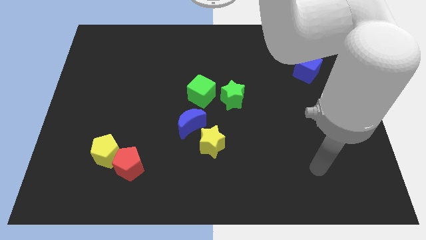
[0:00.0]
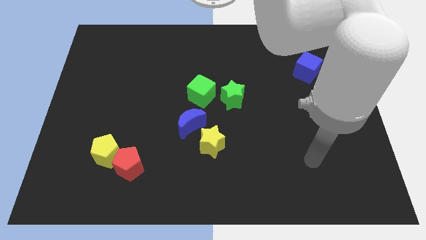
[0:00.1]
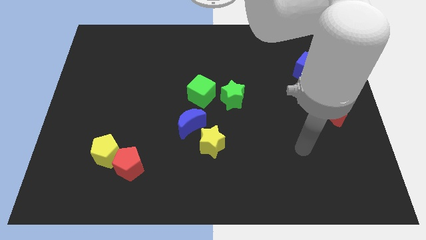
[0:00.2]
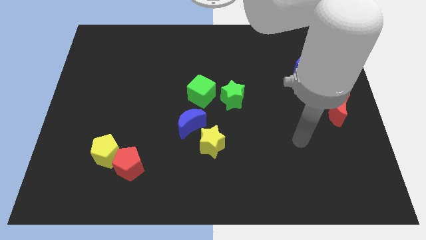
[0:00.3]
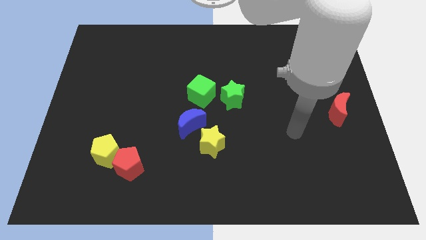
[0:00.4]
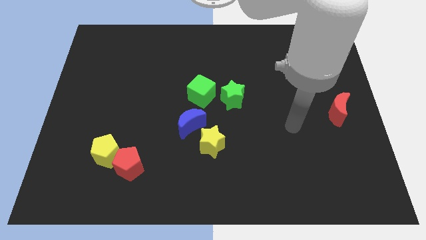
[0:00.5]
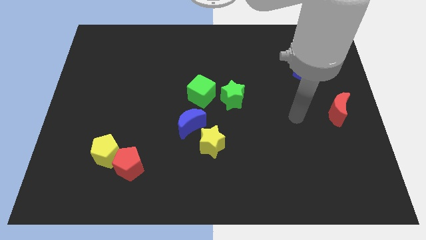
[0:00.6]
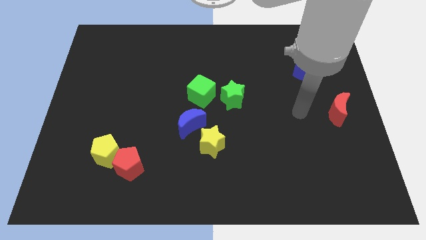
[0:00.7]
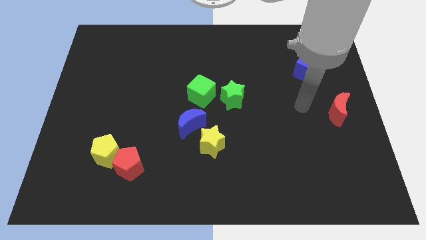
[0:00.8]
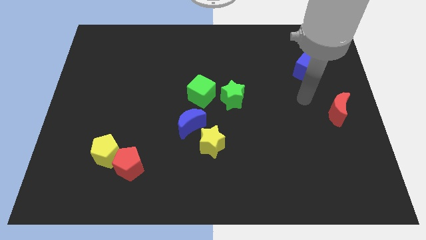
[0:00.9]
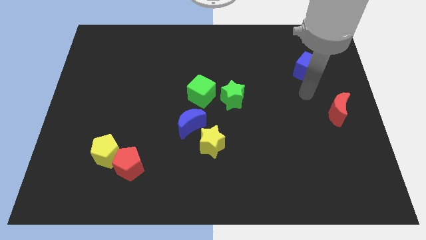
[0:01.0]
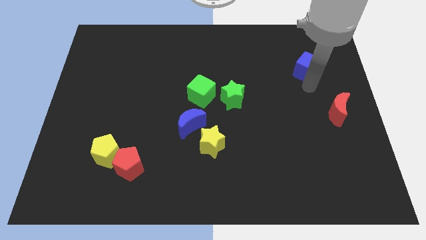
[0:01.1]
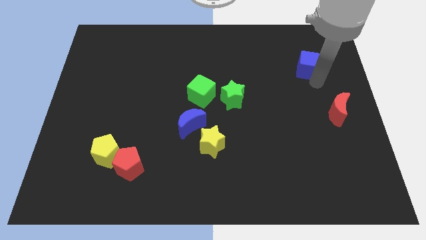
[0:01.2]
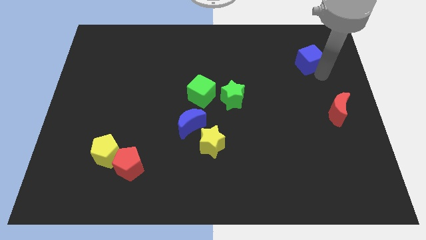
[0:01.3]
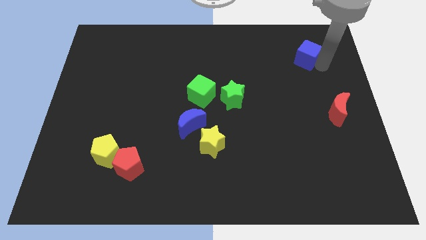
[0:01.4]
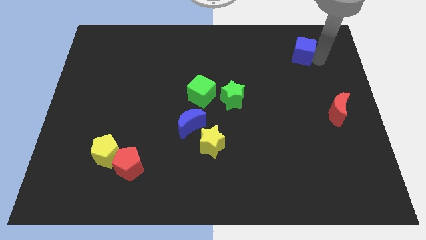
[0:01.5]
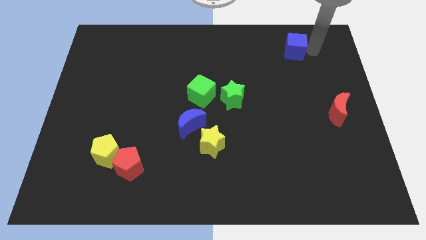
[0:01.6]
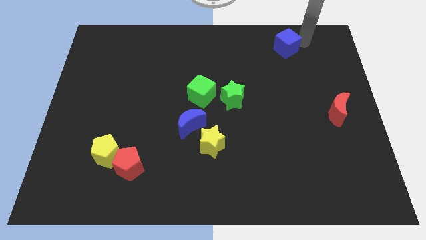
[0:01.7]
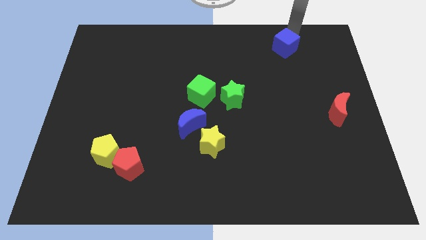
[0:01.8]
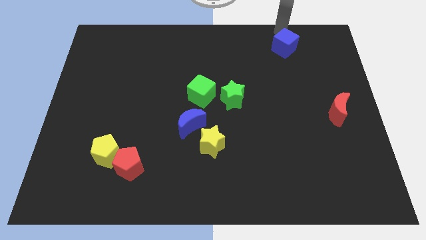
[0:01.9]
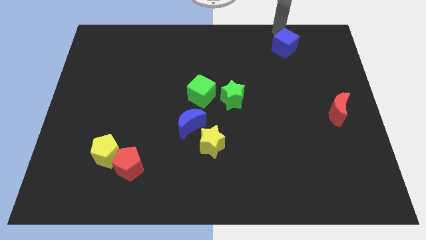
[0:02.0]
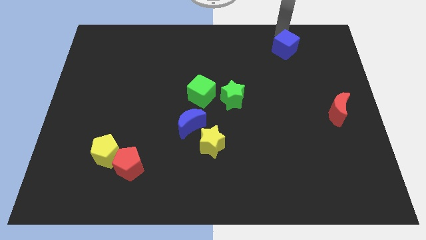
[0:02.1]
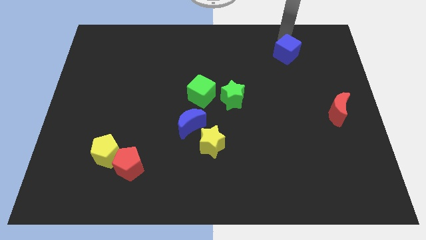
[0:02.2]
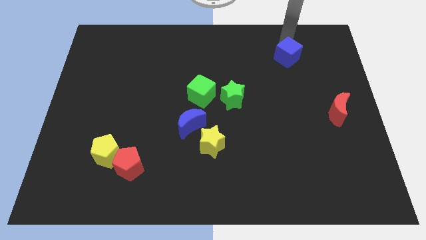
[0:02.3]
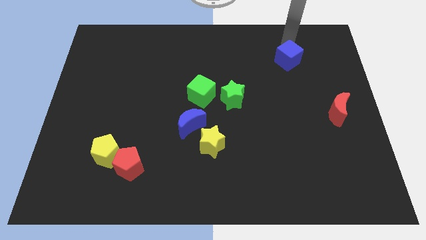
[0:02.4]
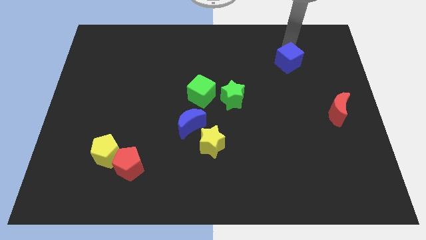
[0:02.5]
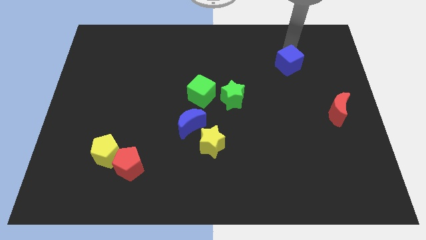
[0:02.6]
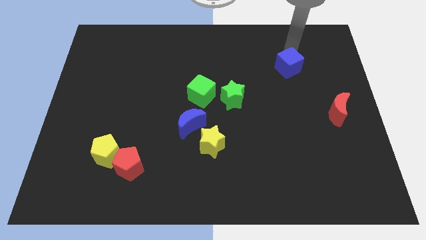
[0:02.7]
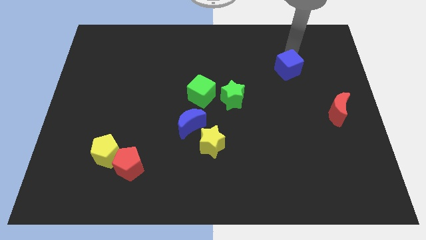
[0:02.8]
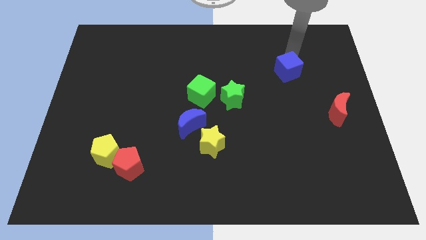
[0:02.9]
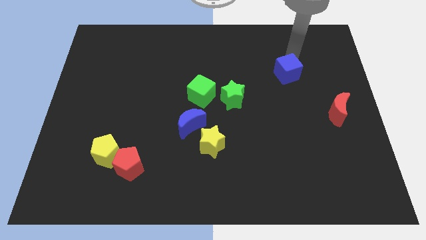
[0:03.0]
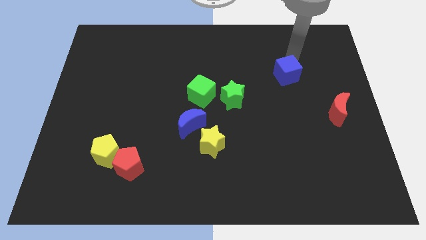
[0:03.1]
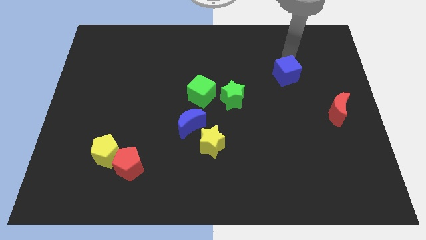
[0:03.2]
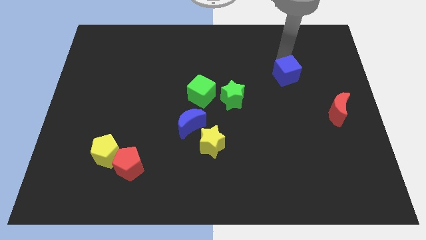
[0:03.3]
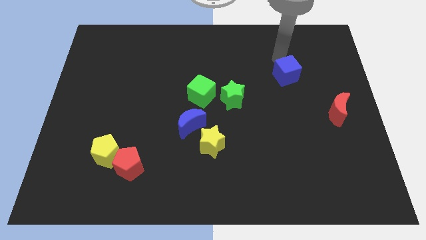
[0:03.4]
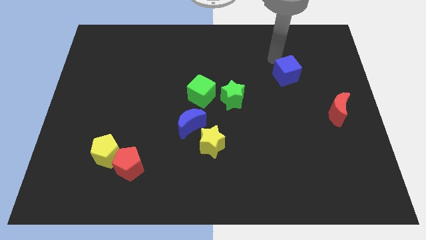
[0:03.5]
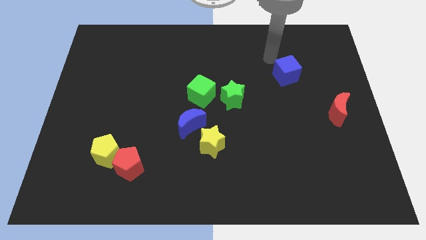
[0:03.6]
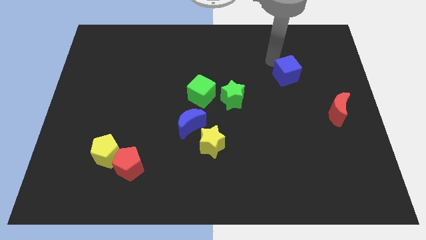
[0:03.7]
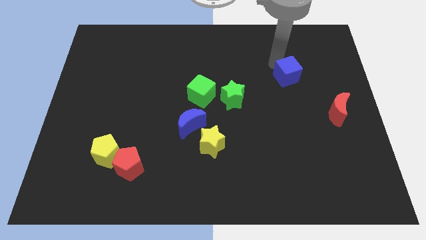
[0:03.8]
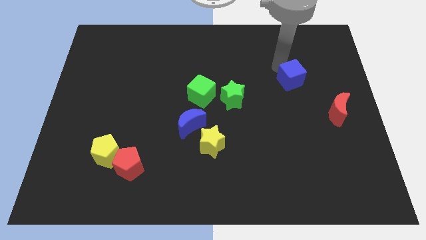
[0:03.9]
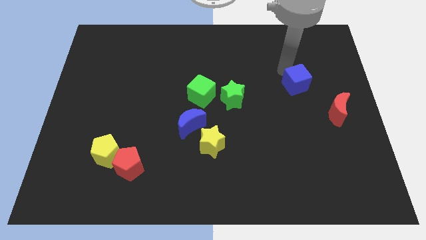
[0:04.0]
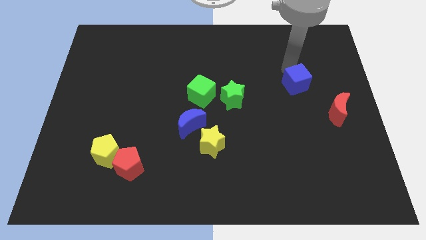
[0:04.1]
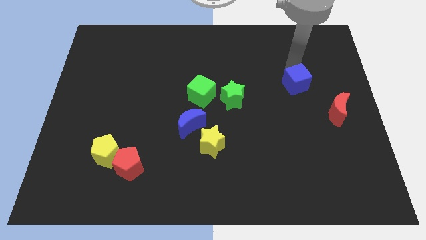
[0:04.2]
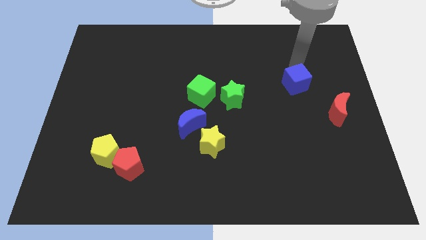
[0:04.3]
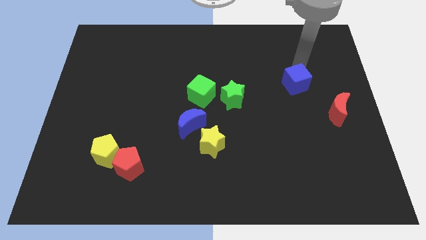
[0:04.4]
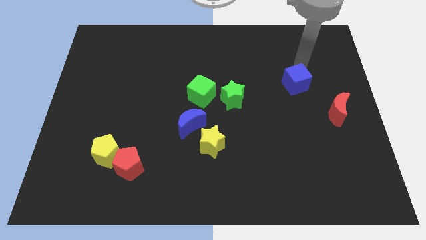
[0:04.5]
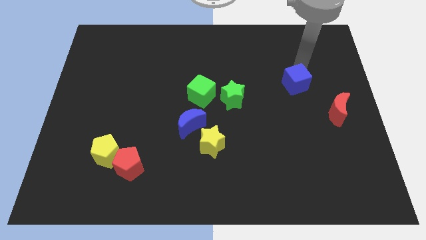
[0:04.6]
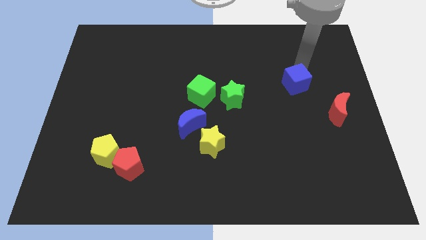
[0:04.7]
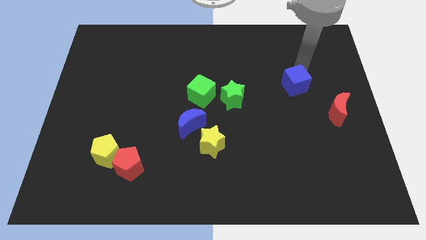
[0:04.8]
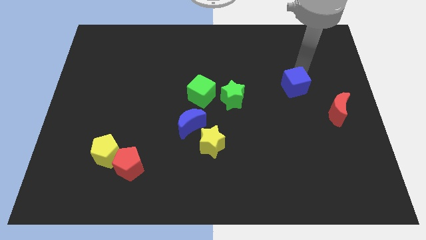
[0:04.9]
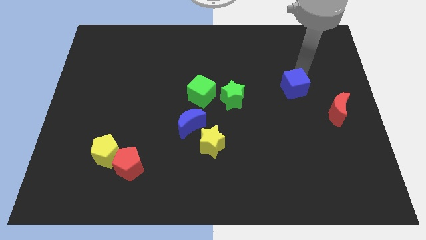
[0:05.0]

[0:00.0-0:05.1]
slide the blue cube somewhat down and left

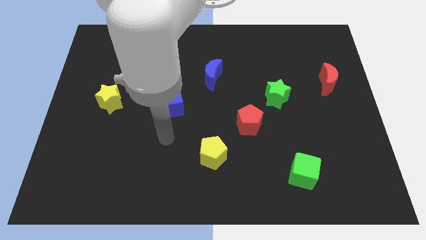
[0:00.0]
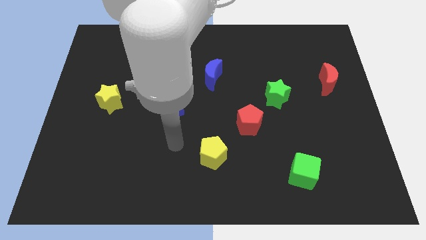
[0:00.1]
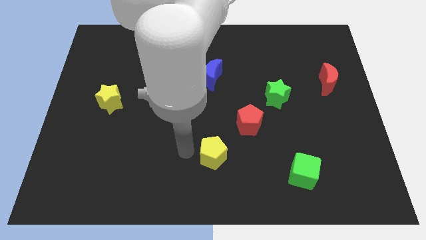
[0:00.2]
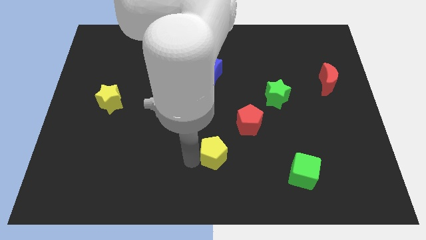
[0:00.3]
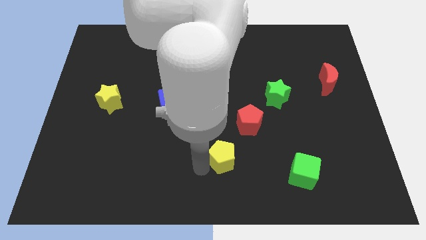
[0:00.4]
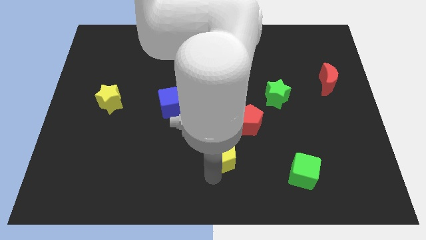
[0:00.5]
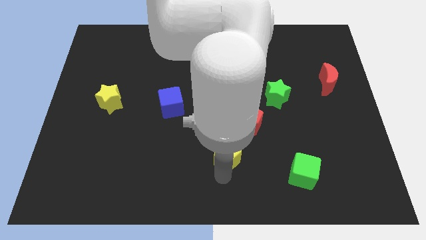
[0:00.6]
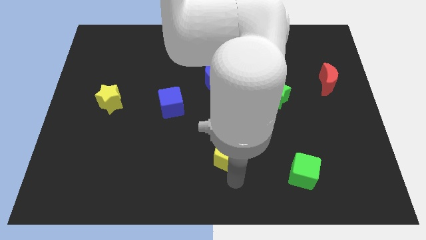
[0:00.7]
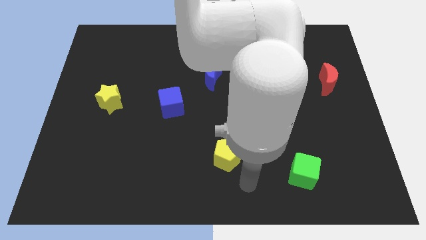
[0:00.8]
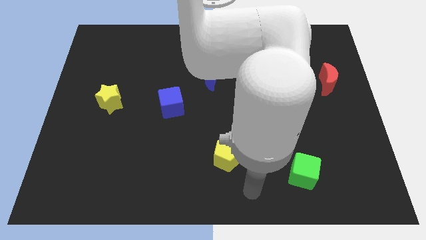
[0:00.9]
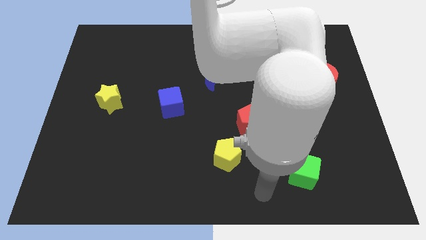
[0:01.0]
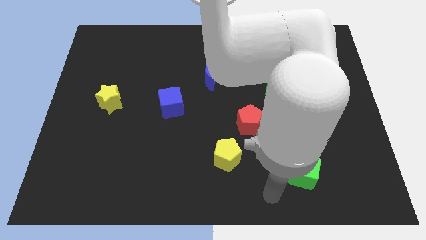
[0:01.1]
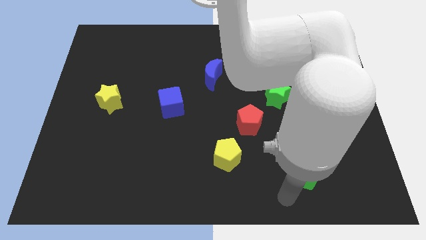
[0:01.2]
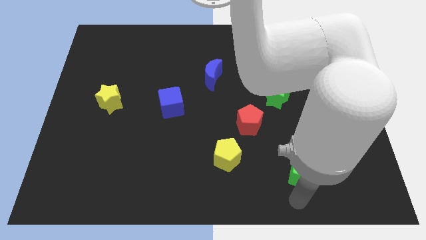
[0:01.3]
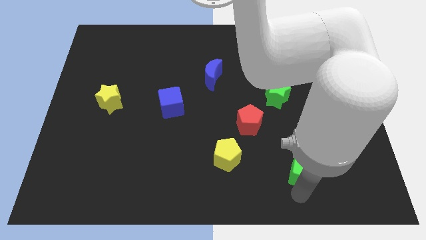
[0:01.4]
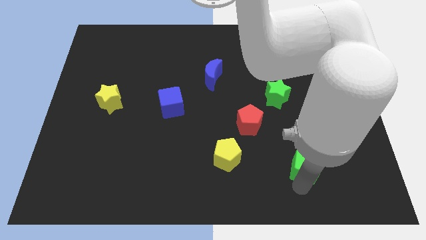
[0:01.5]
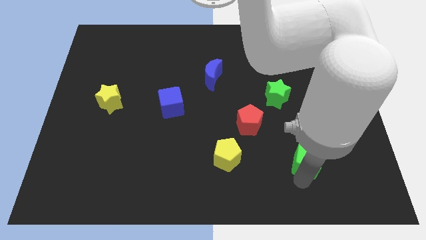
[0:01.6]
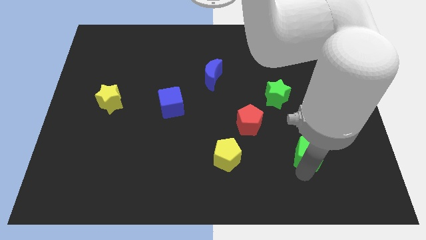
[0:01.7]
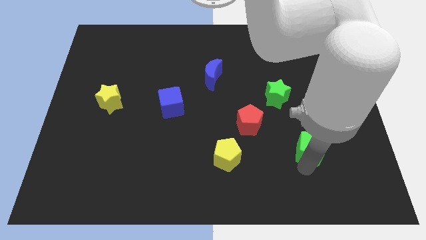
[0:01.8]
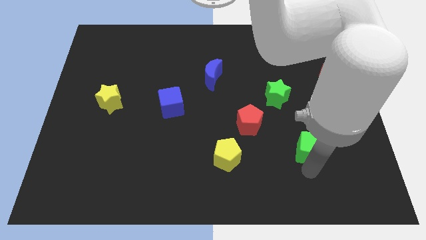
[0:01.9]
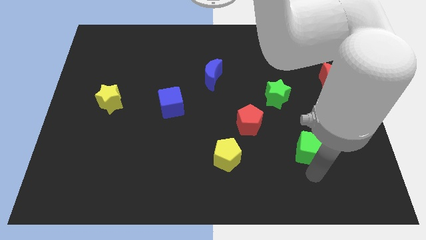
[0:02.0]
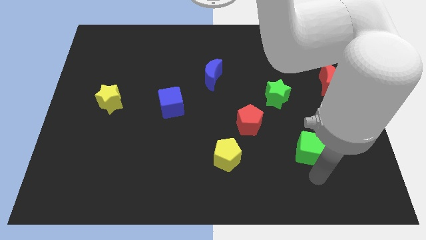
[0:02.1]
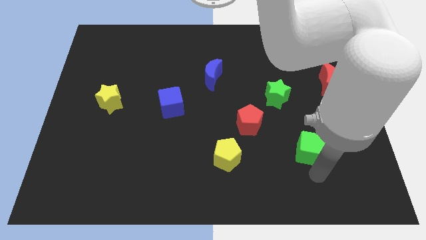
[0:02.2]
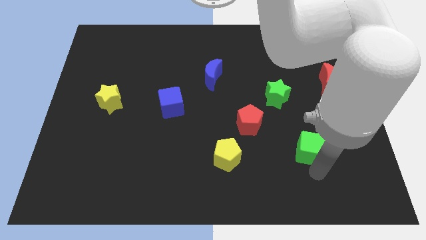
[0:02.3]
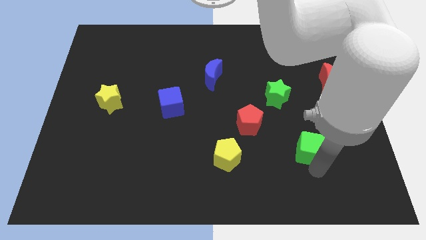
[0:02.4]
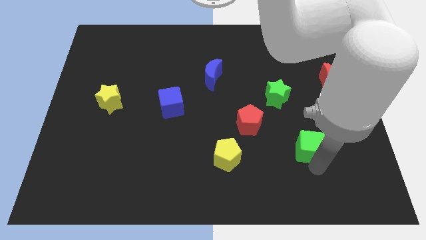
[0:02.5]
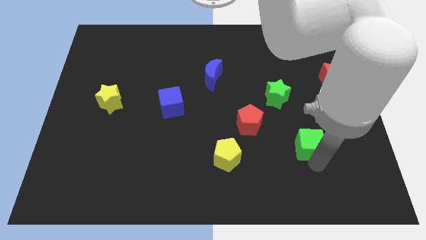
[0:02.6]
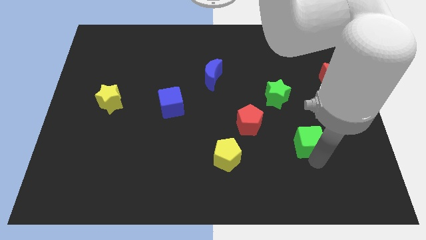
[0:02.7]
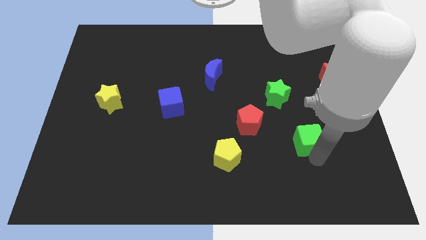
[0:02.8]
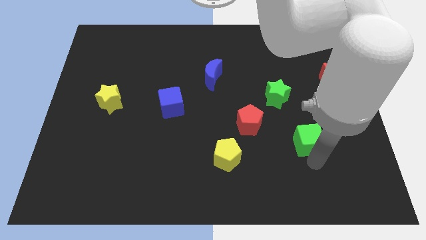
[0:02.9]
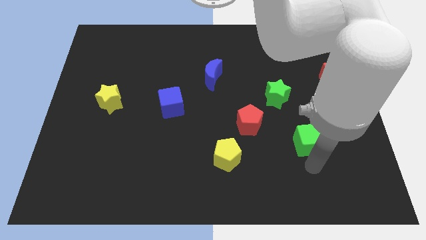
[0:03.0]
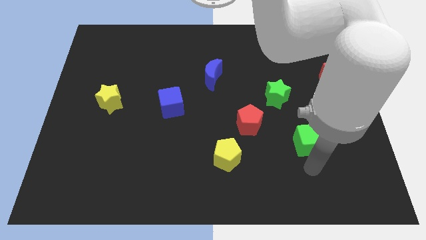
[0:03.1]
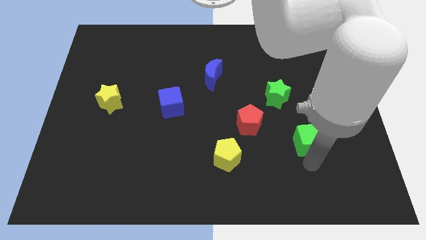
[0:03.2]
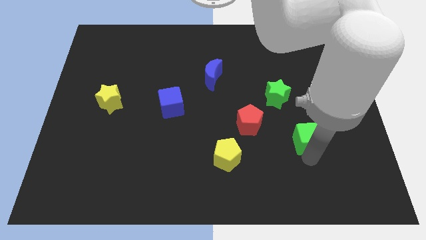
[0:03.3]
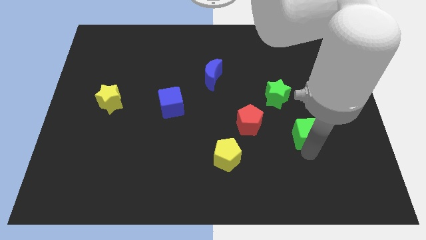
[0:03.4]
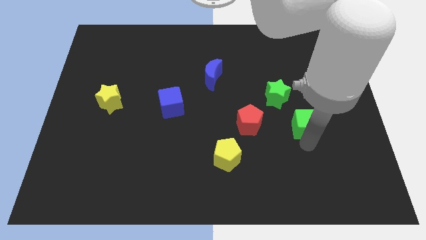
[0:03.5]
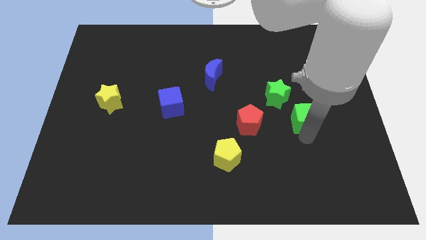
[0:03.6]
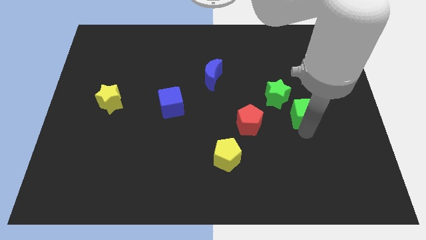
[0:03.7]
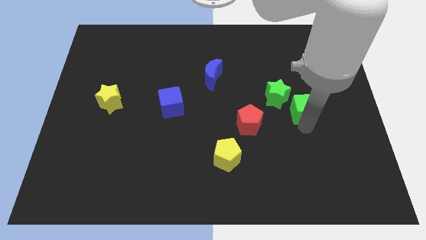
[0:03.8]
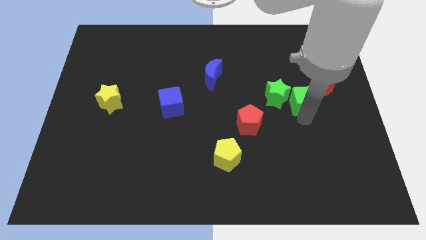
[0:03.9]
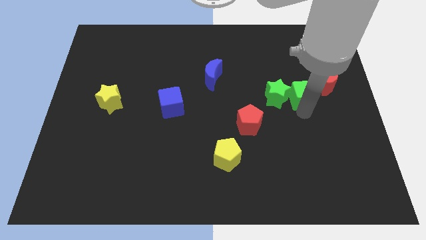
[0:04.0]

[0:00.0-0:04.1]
move the green cube up
